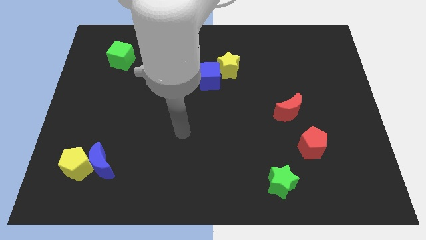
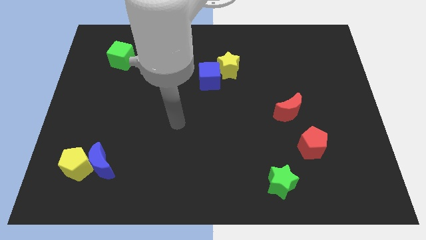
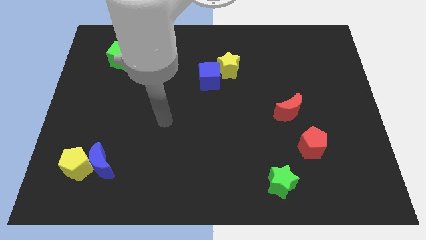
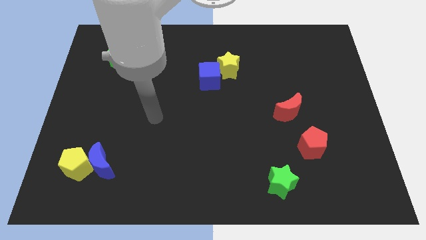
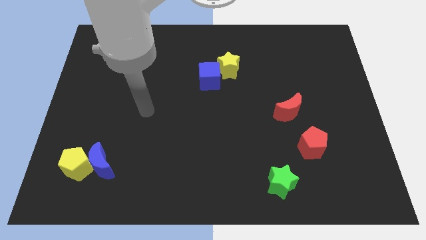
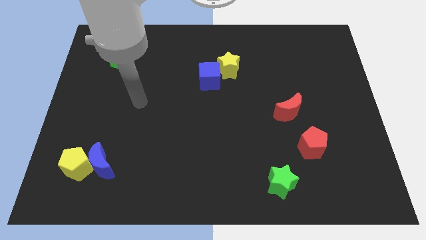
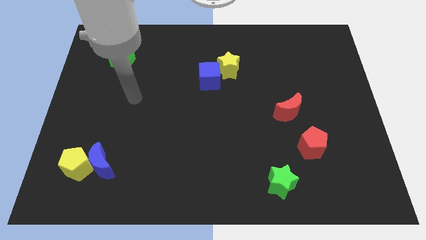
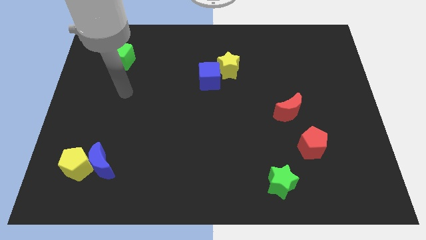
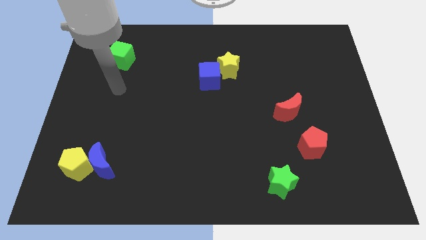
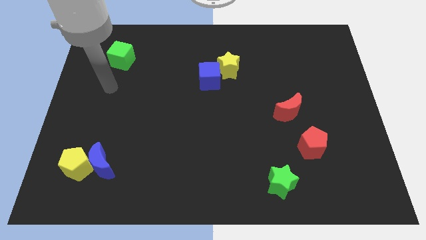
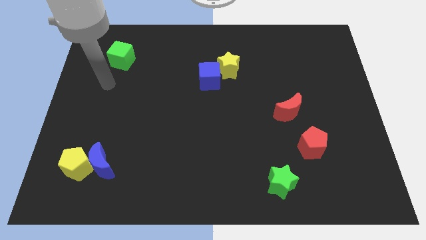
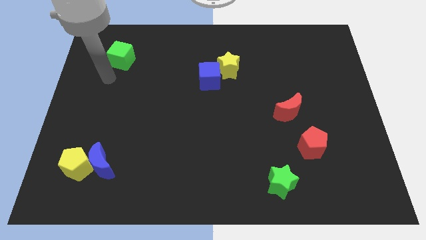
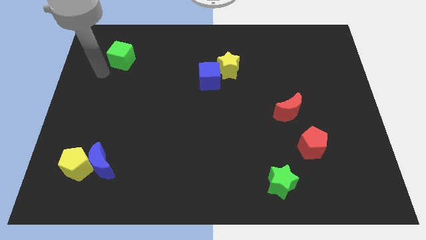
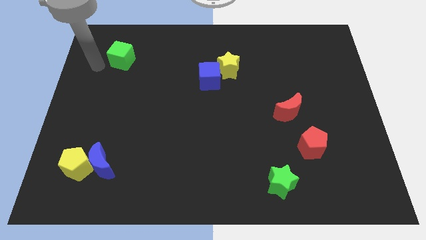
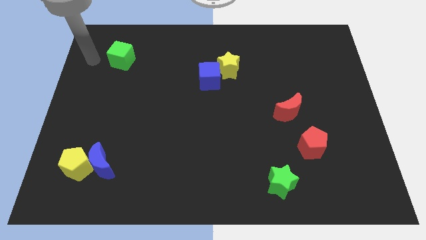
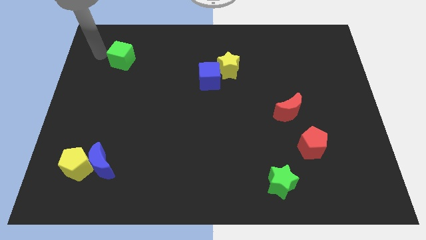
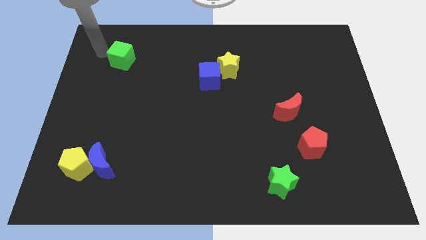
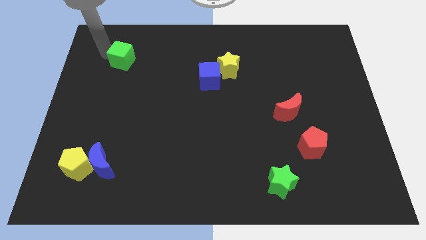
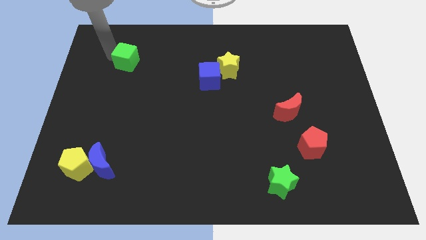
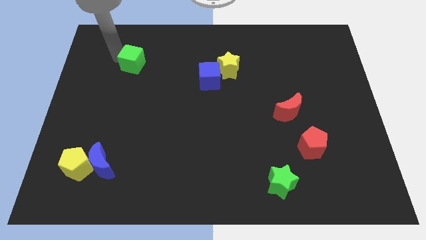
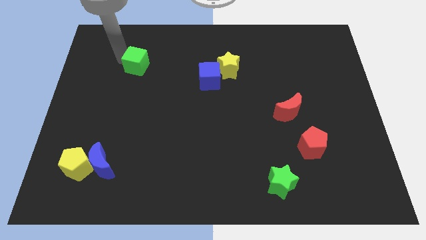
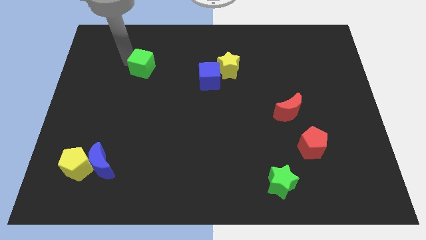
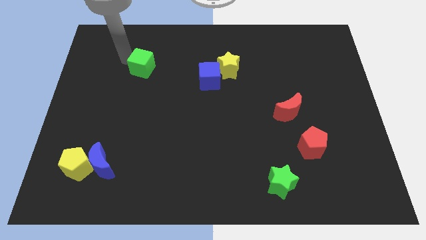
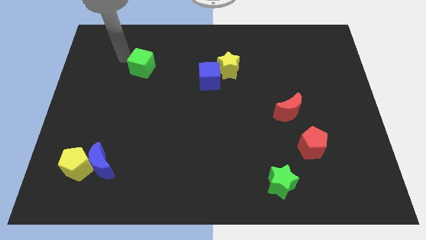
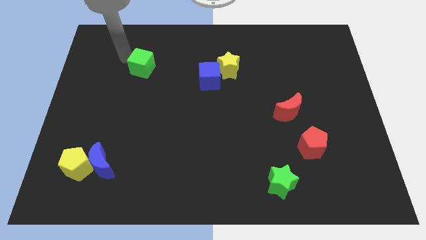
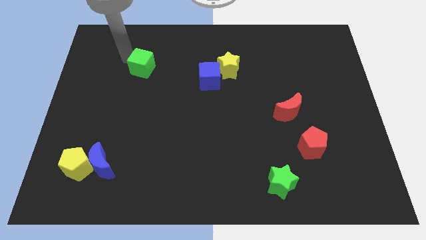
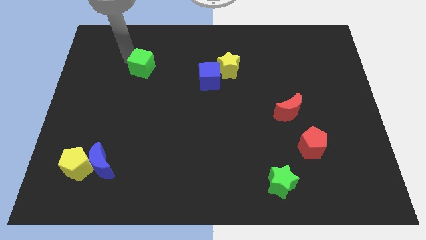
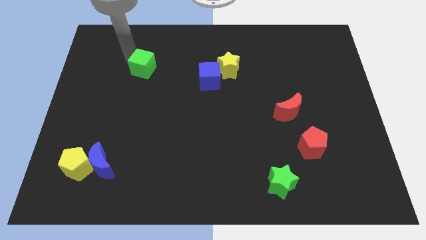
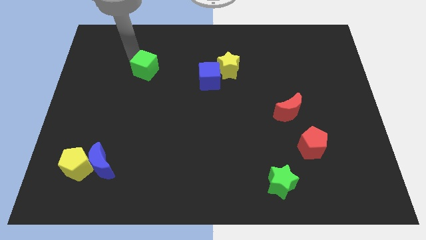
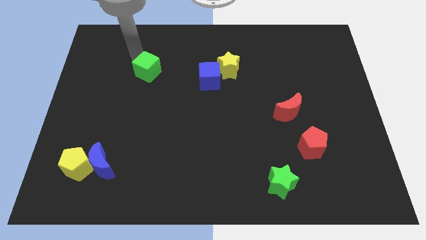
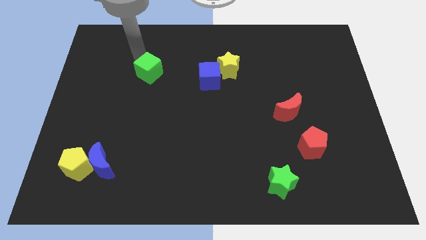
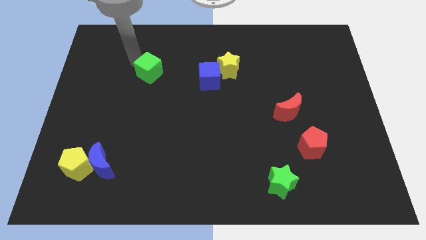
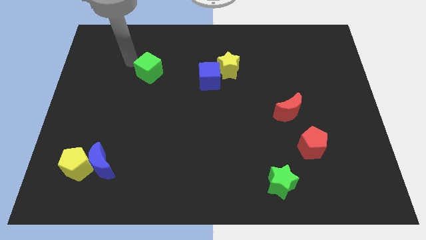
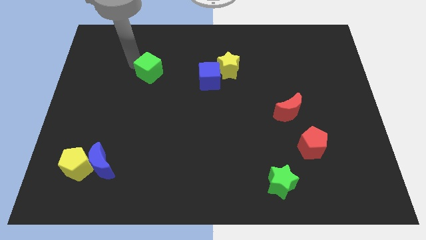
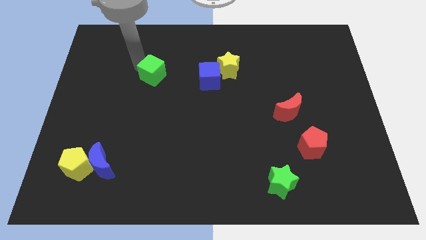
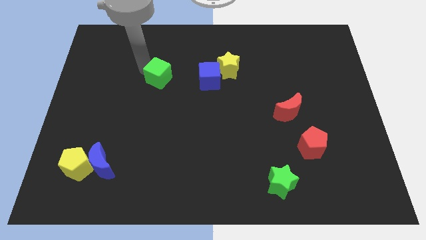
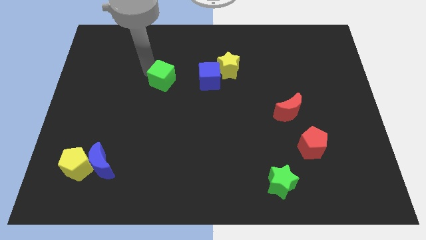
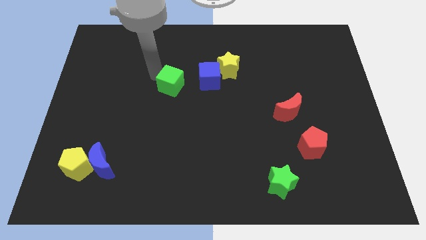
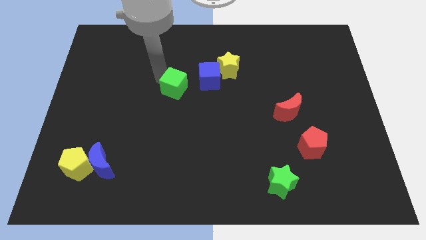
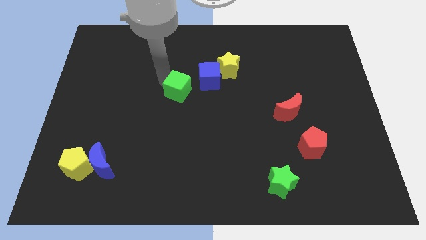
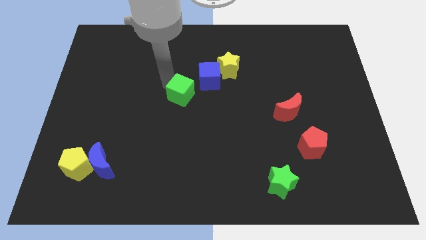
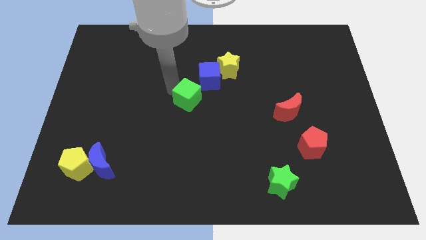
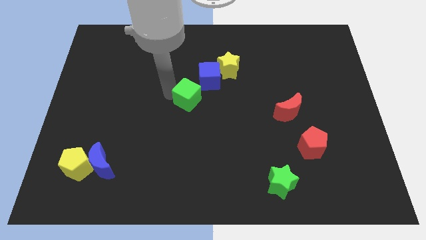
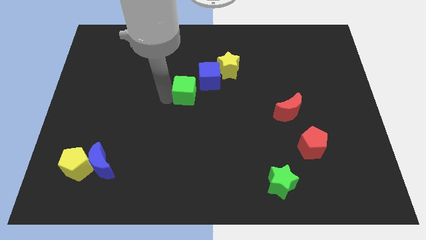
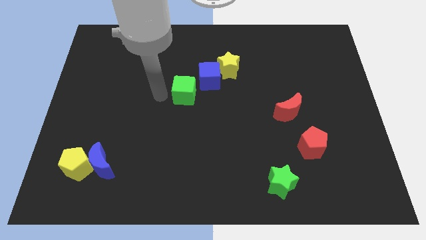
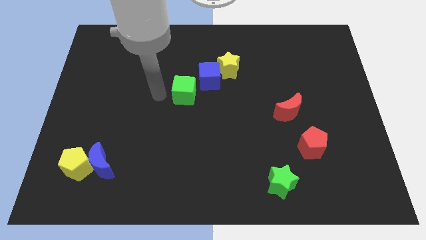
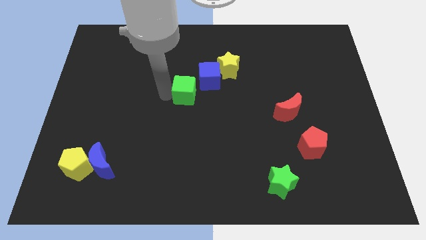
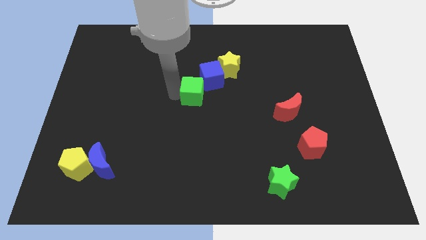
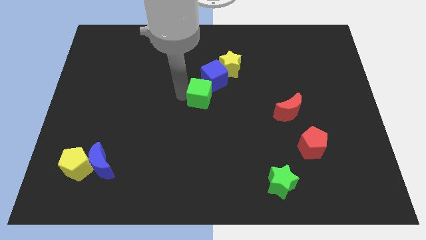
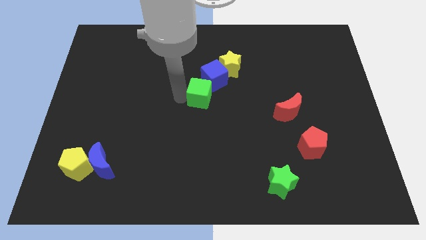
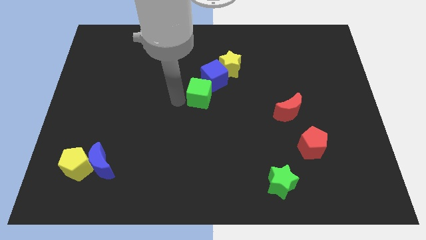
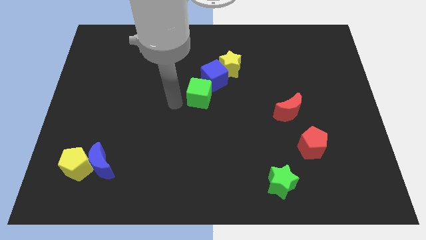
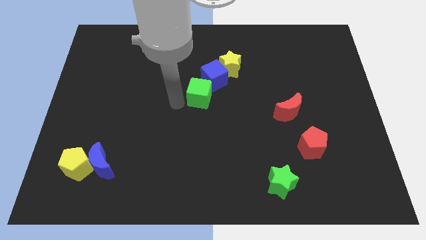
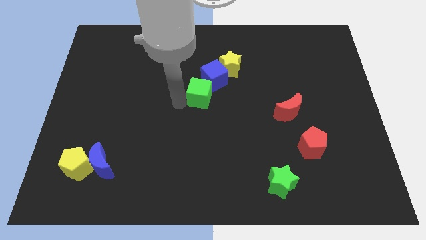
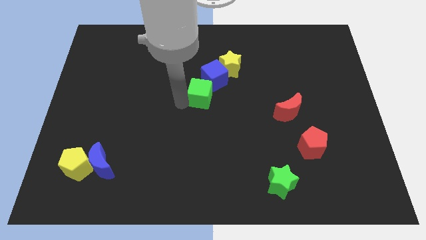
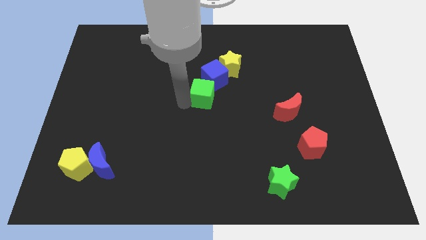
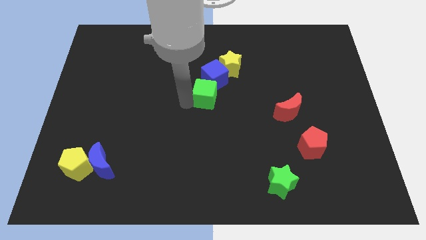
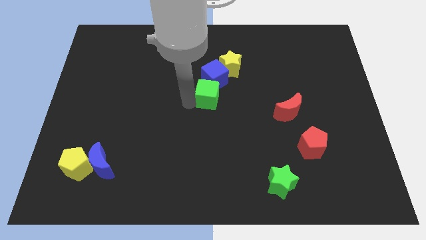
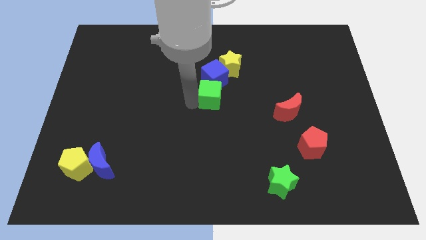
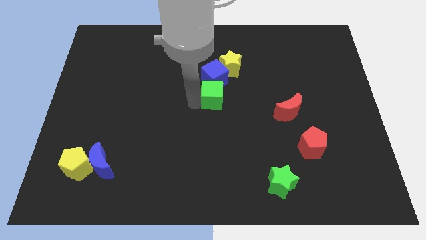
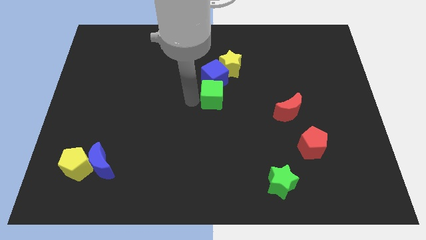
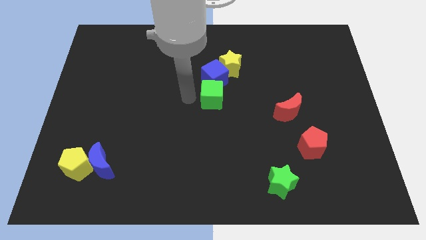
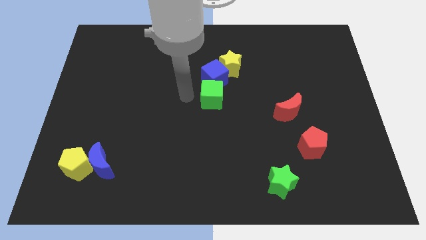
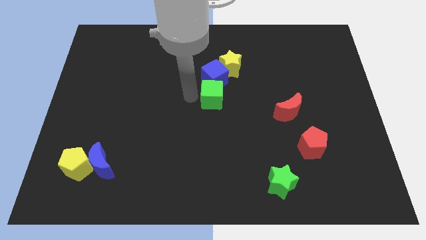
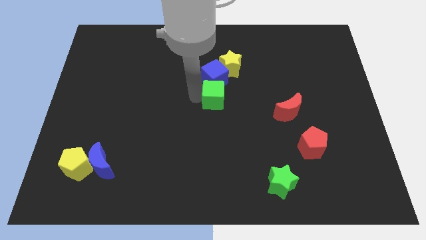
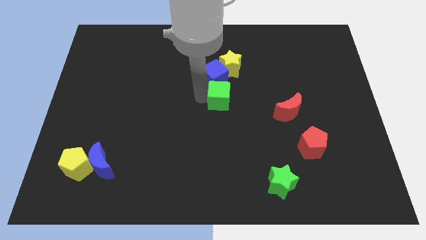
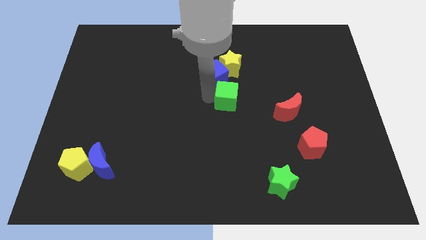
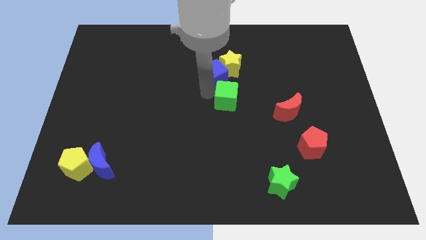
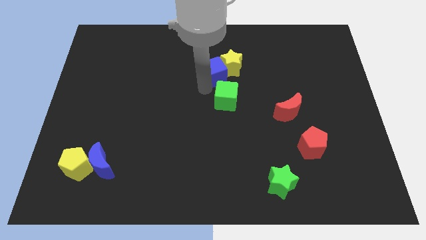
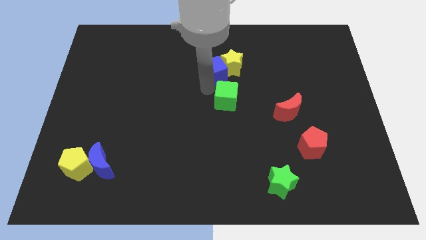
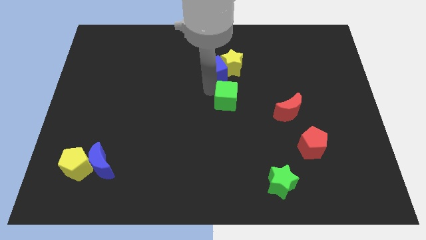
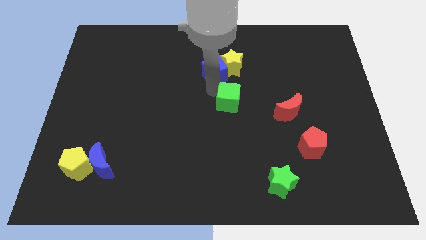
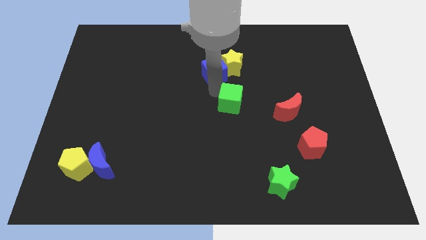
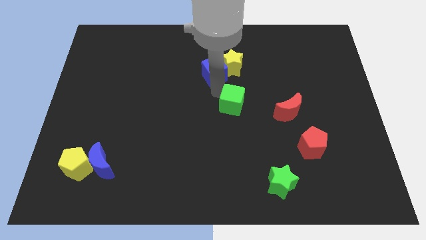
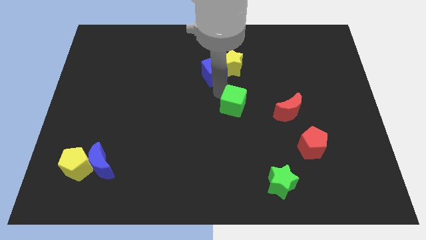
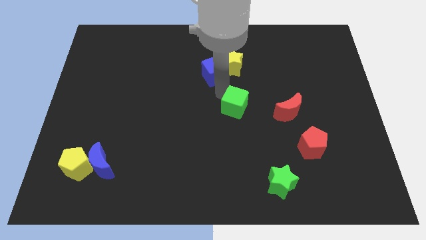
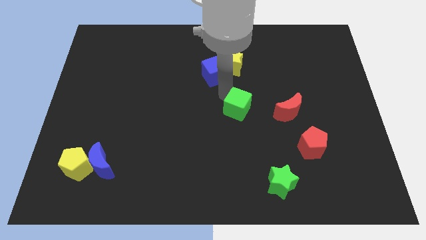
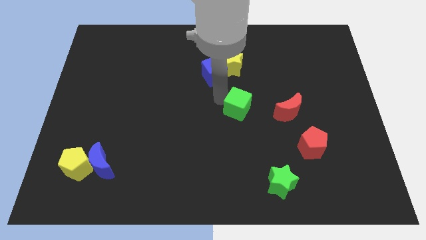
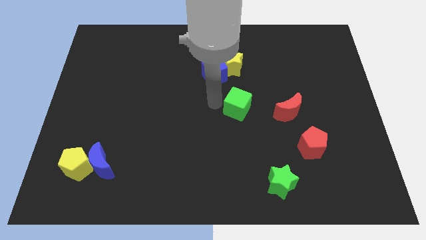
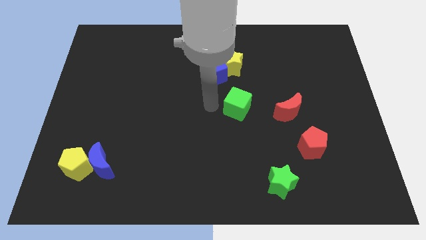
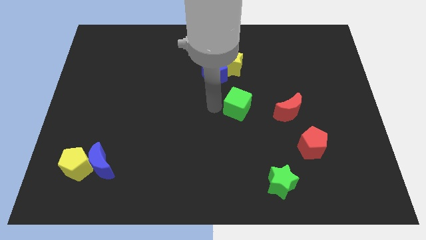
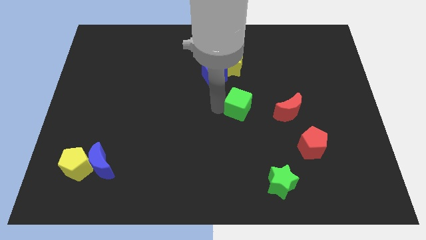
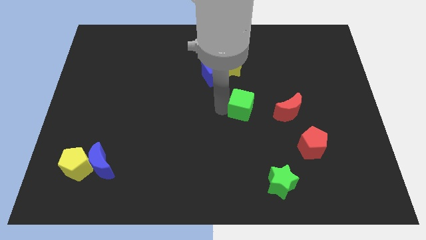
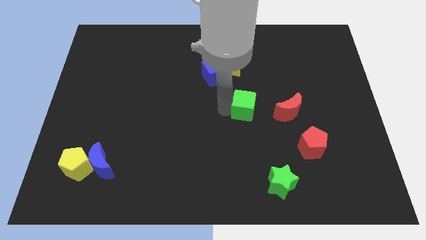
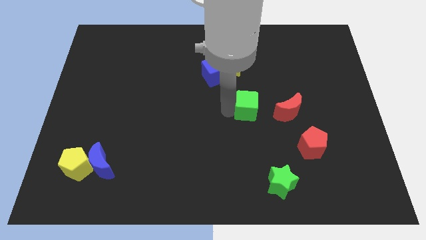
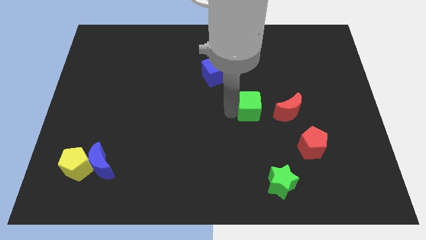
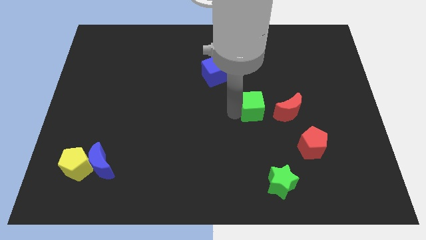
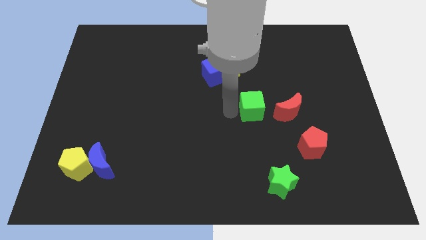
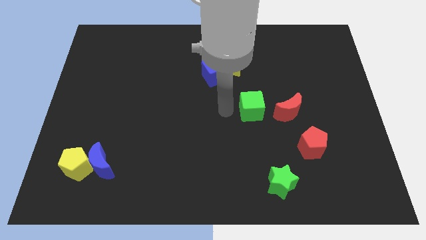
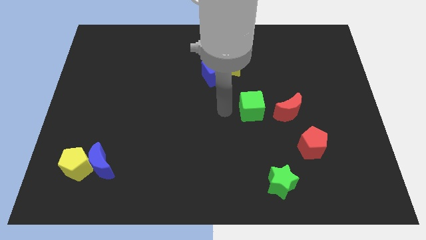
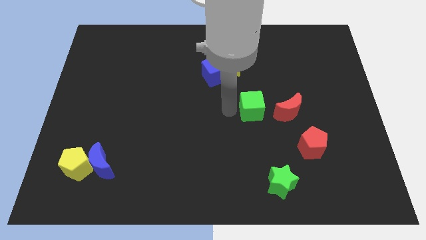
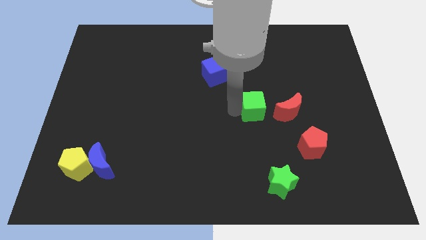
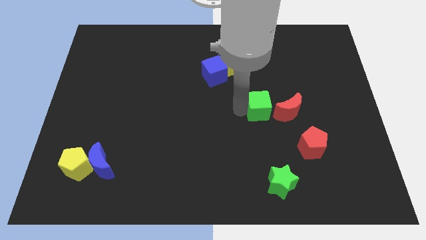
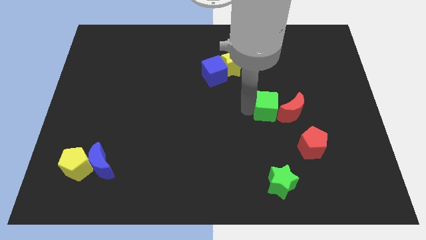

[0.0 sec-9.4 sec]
push the green cube next to the red moon
